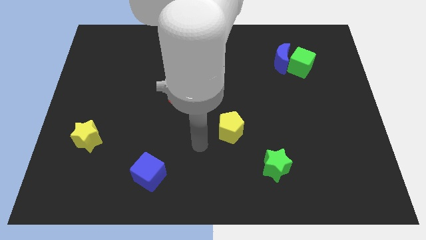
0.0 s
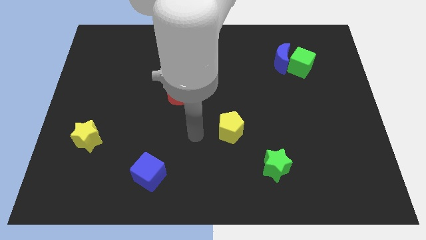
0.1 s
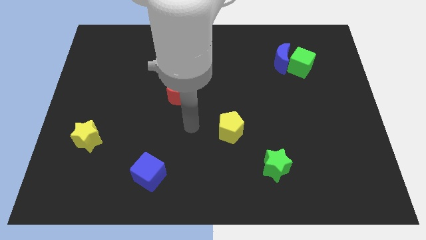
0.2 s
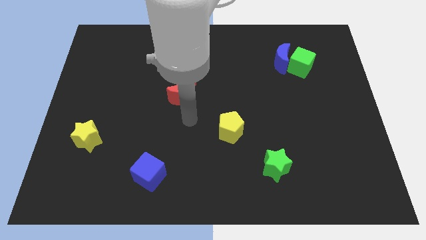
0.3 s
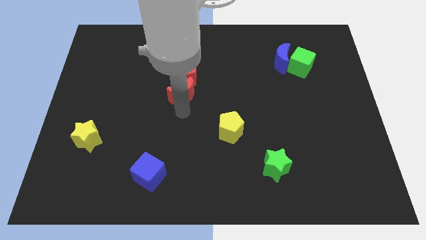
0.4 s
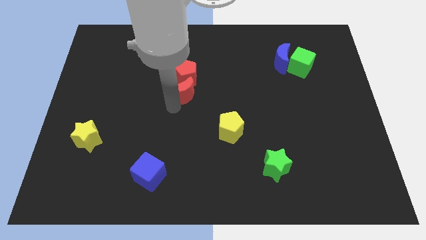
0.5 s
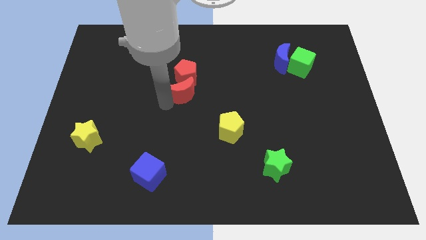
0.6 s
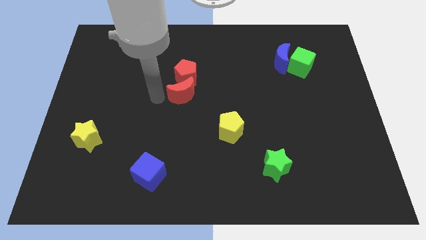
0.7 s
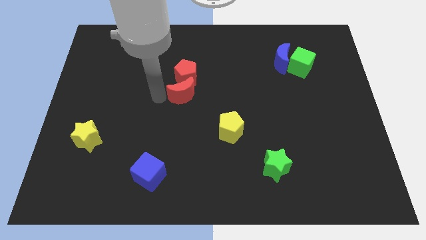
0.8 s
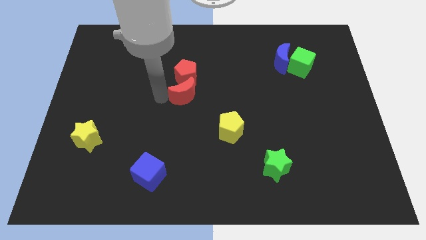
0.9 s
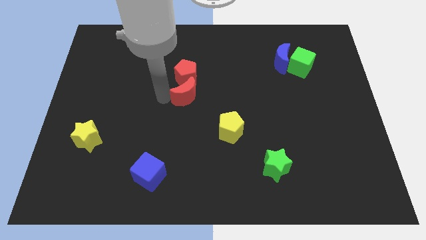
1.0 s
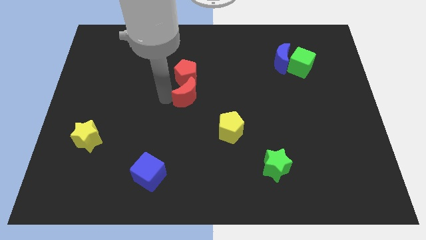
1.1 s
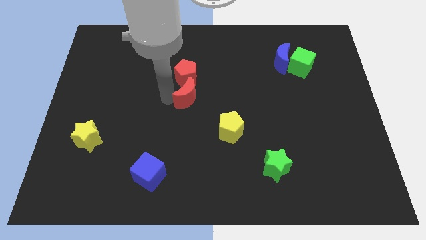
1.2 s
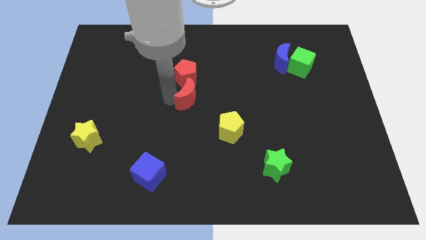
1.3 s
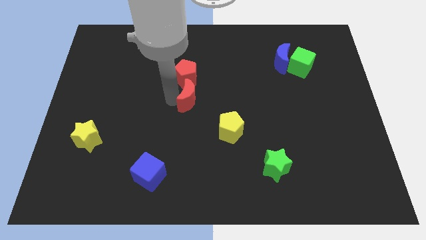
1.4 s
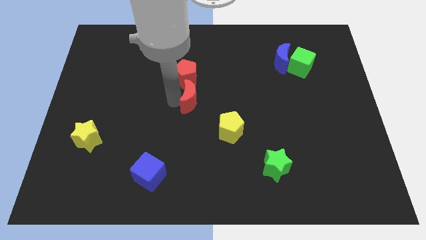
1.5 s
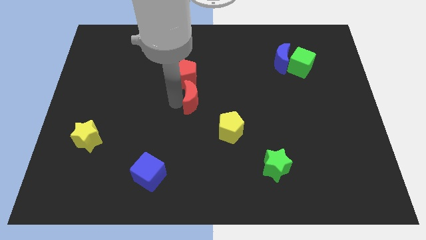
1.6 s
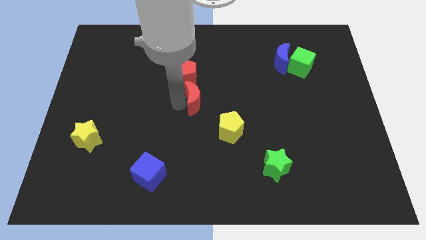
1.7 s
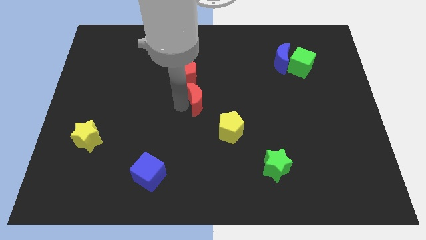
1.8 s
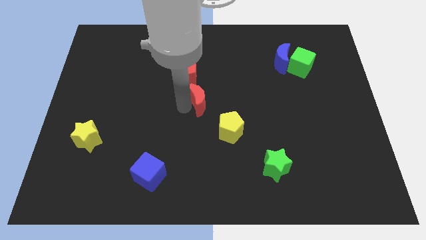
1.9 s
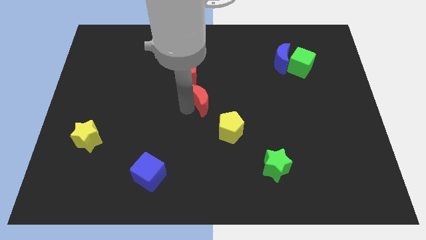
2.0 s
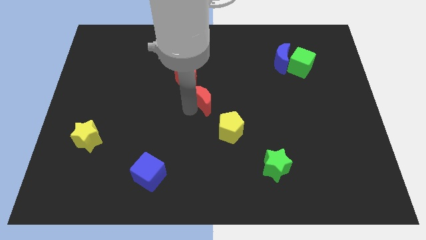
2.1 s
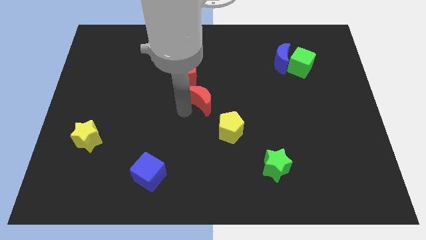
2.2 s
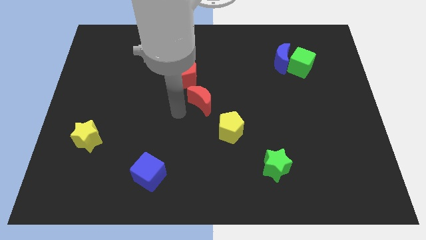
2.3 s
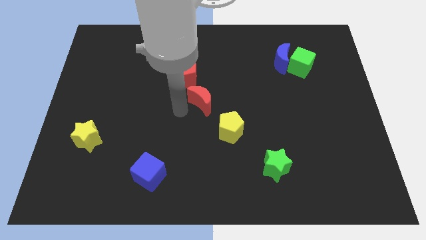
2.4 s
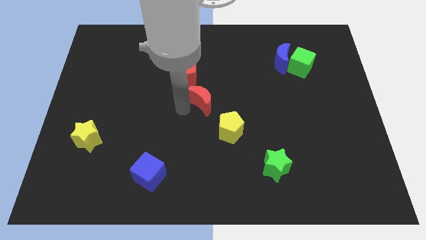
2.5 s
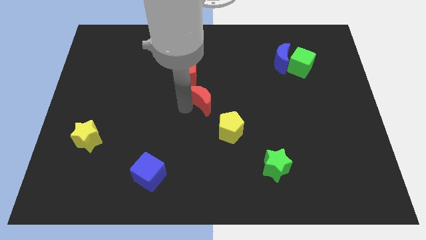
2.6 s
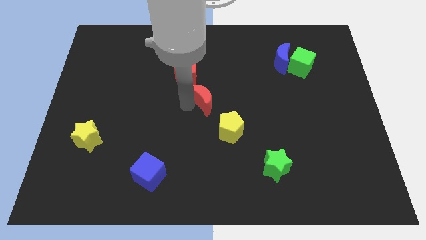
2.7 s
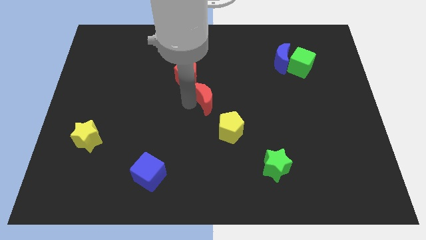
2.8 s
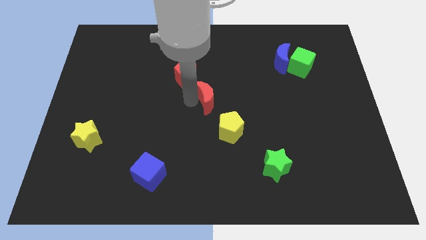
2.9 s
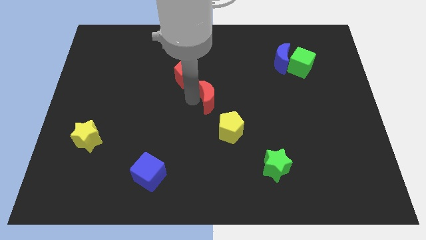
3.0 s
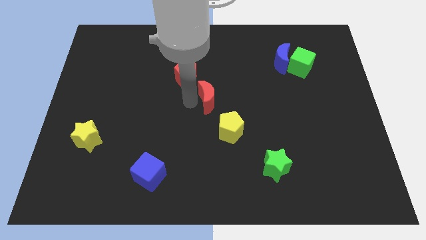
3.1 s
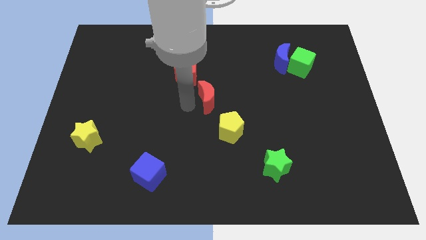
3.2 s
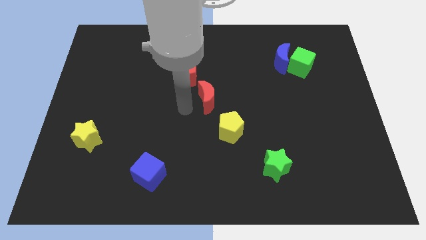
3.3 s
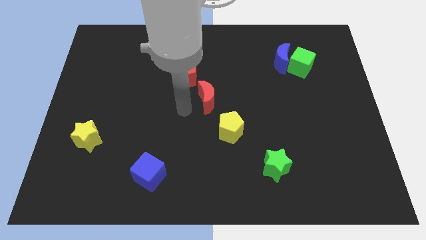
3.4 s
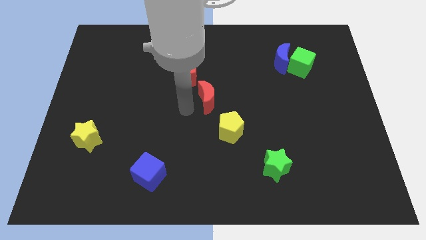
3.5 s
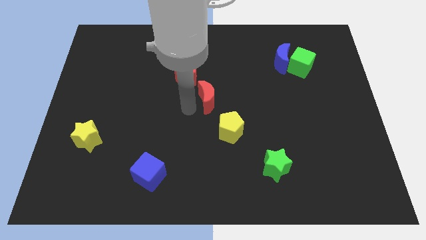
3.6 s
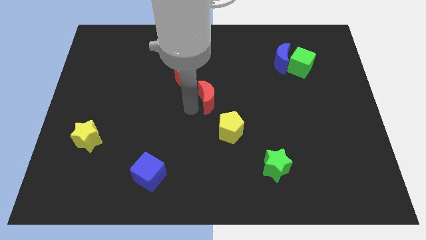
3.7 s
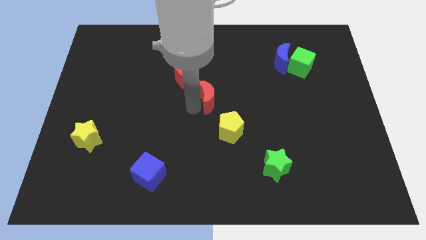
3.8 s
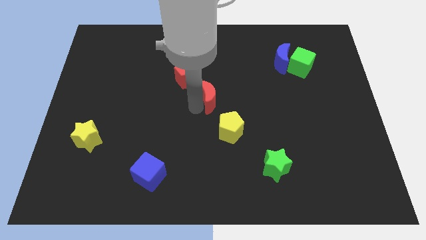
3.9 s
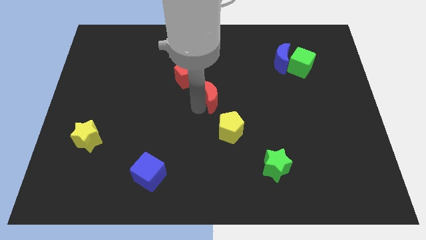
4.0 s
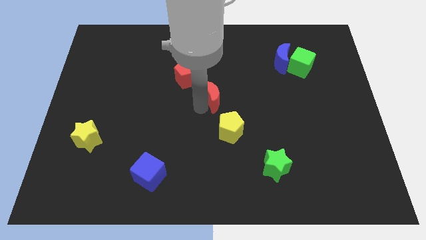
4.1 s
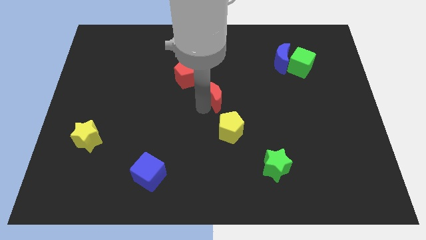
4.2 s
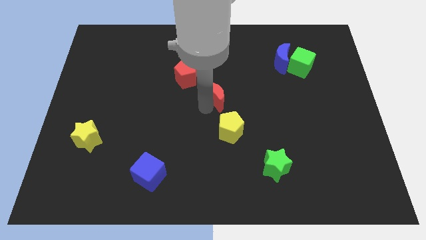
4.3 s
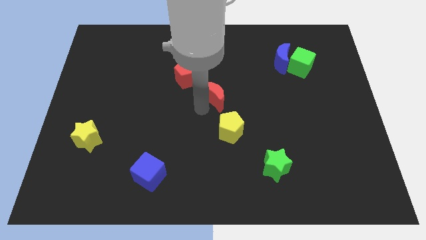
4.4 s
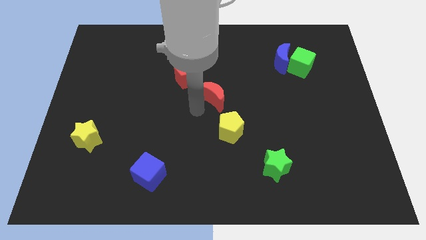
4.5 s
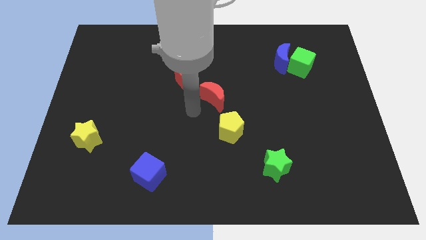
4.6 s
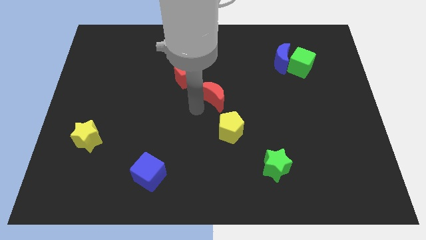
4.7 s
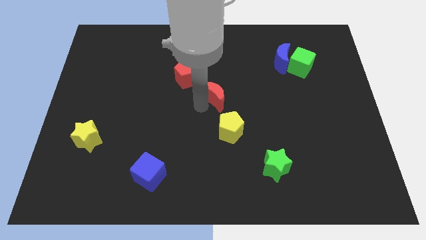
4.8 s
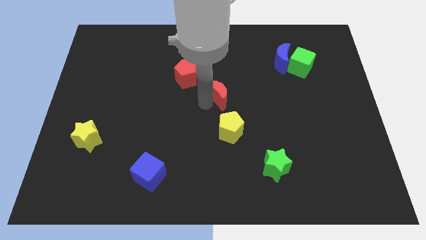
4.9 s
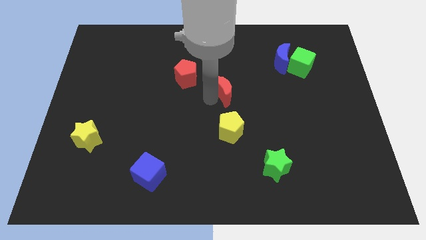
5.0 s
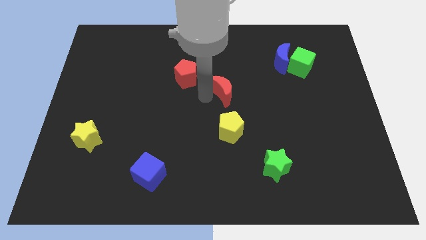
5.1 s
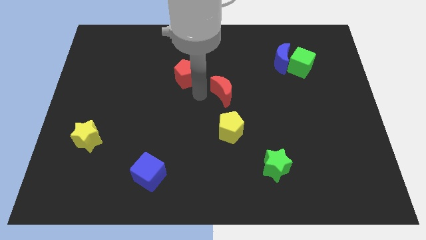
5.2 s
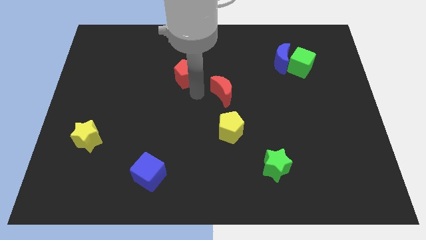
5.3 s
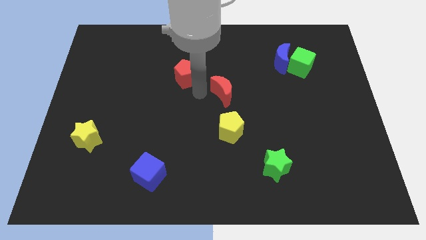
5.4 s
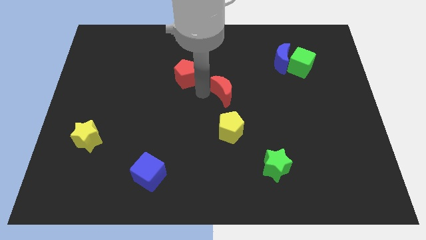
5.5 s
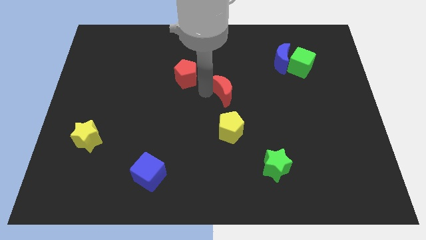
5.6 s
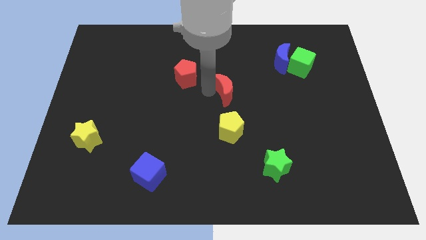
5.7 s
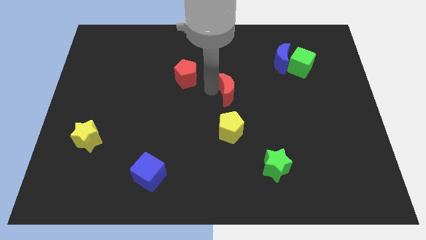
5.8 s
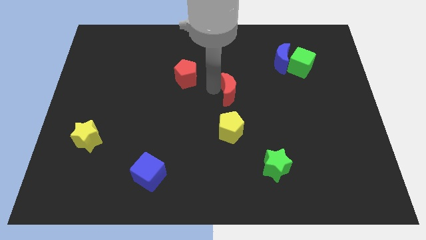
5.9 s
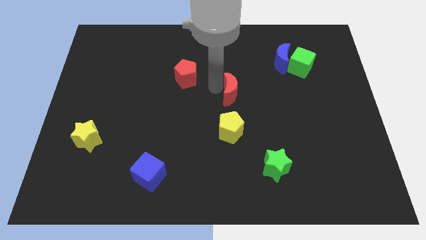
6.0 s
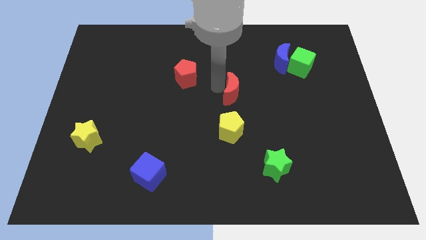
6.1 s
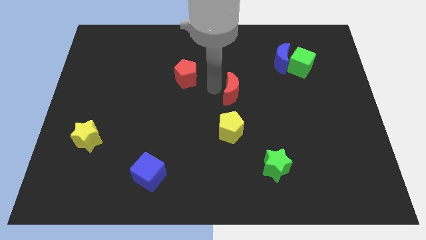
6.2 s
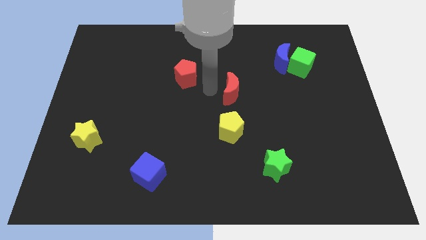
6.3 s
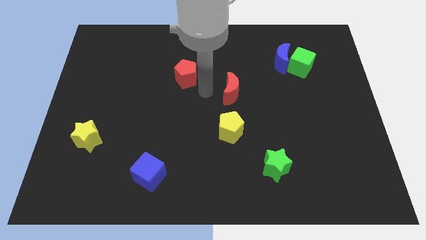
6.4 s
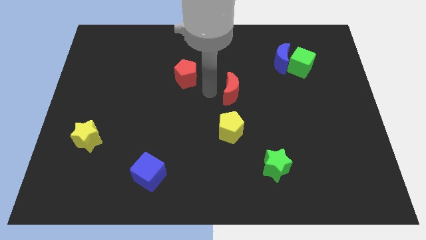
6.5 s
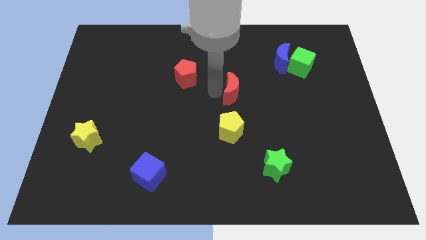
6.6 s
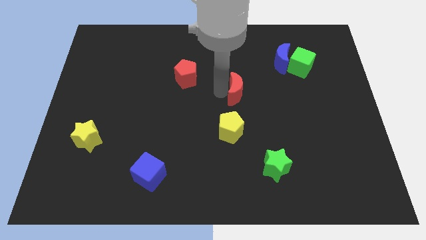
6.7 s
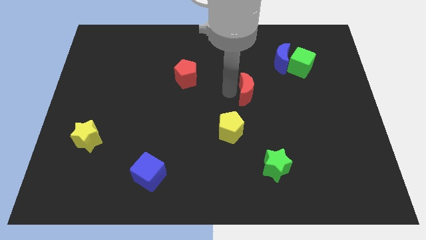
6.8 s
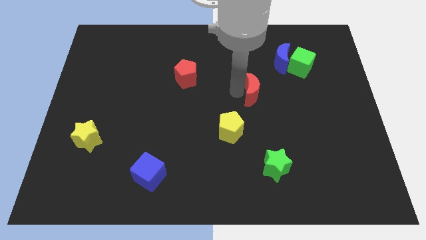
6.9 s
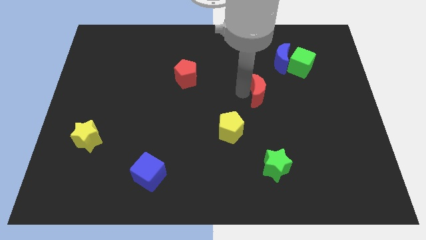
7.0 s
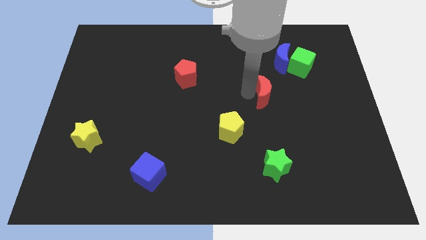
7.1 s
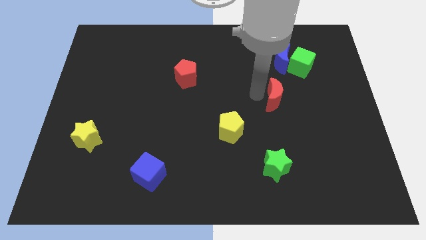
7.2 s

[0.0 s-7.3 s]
push the red moon right

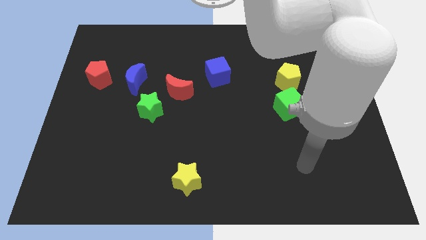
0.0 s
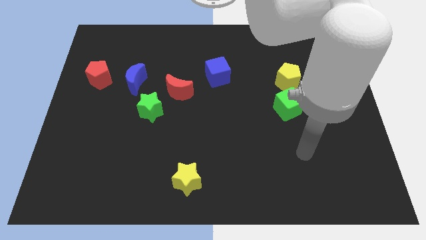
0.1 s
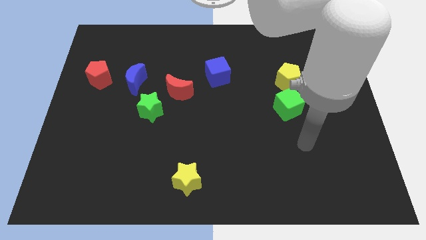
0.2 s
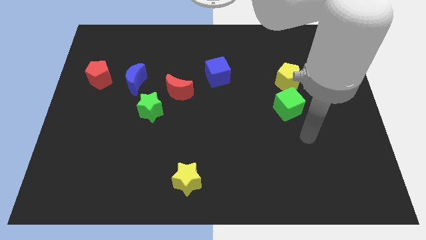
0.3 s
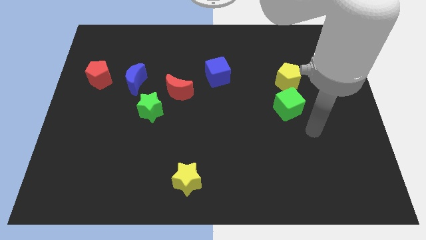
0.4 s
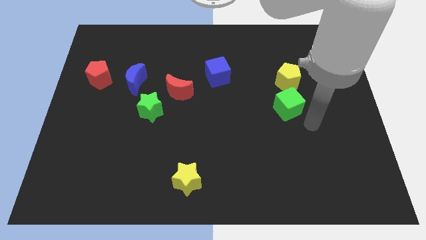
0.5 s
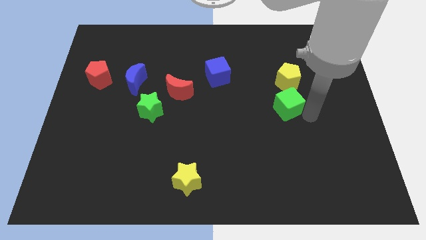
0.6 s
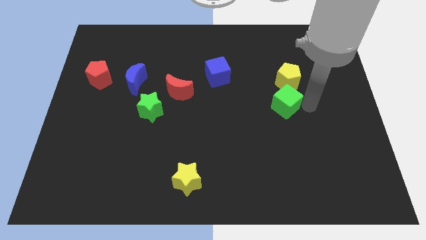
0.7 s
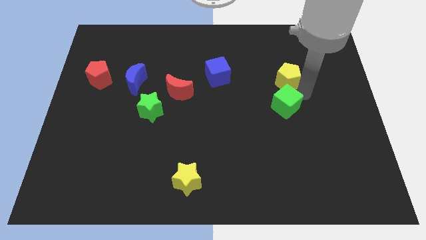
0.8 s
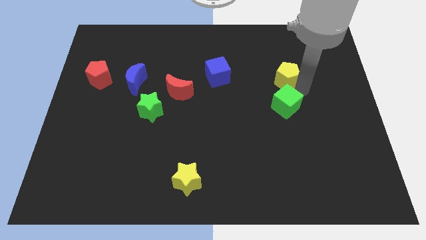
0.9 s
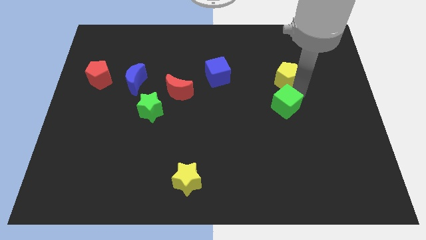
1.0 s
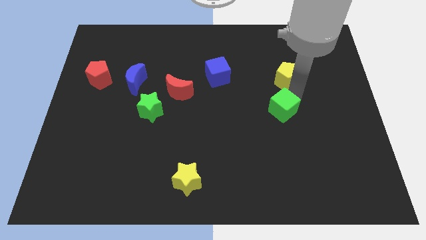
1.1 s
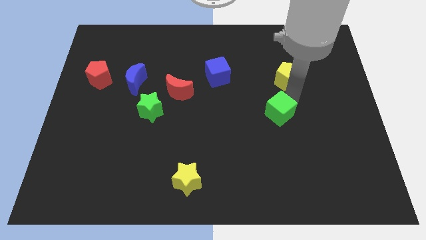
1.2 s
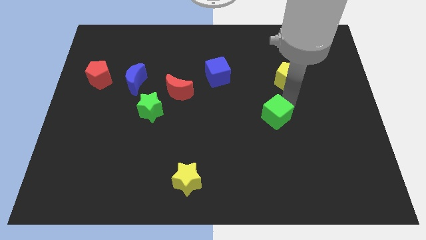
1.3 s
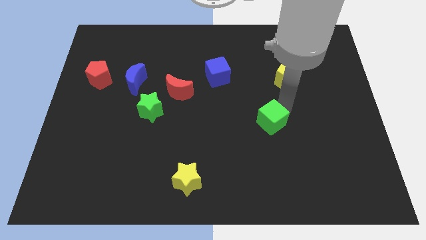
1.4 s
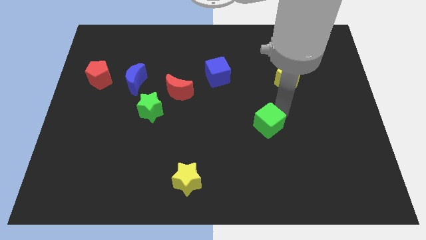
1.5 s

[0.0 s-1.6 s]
move the green cube diagonally downwards and left somewhat
